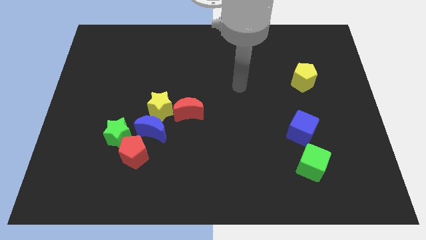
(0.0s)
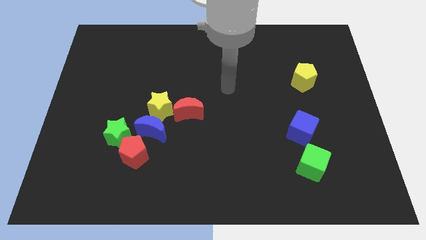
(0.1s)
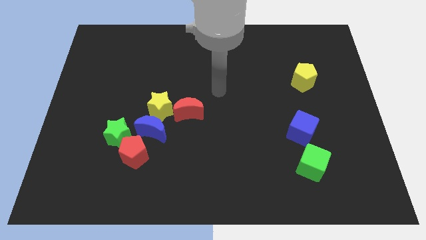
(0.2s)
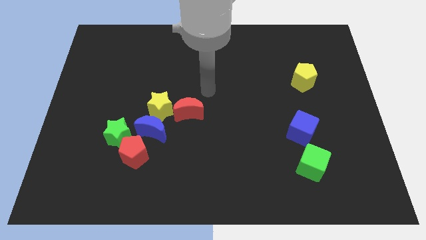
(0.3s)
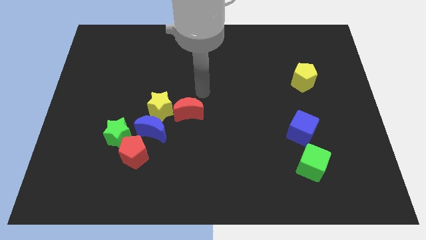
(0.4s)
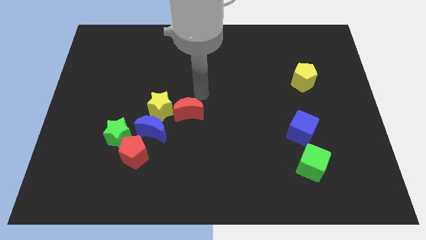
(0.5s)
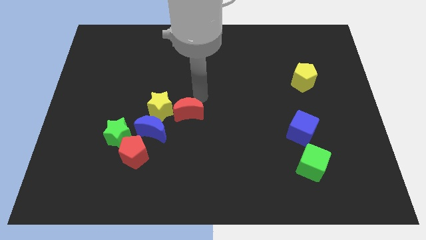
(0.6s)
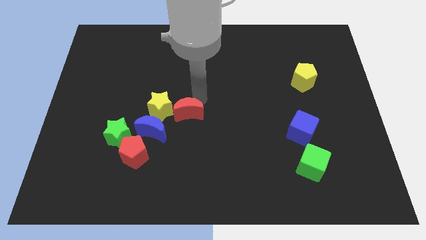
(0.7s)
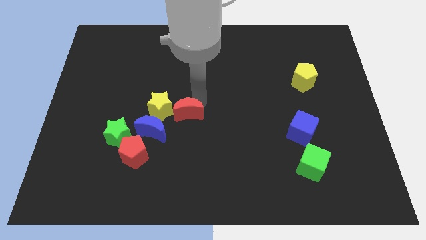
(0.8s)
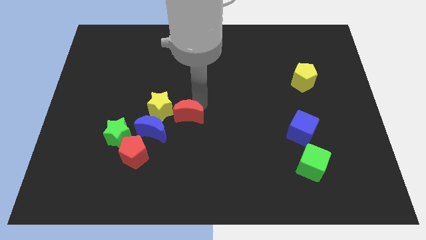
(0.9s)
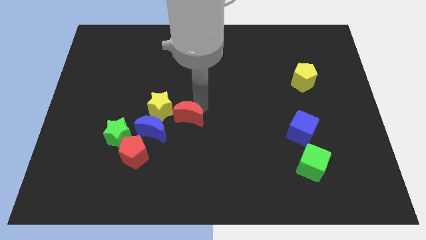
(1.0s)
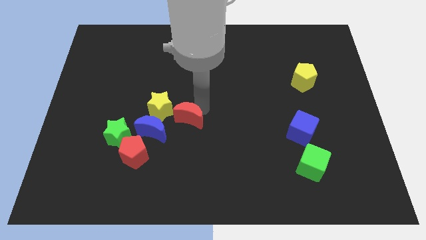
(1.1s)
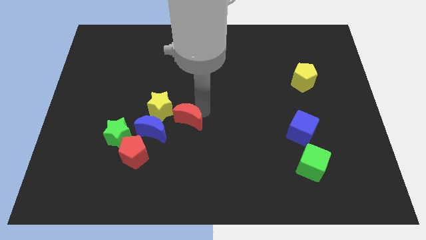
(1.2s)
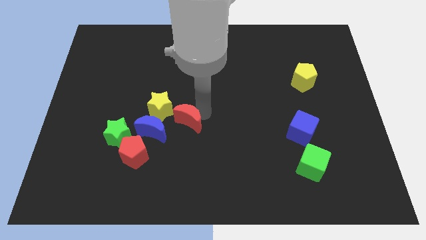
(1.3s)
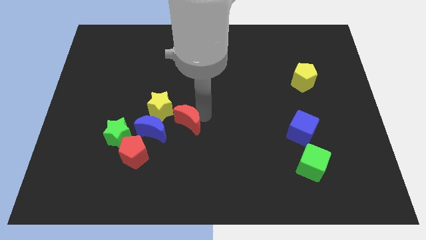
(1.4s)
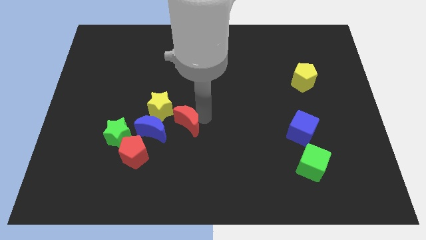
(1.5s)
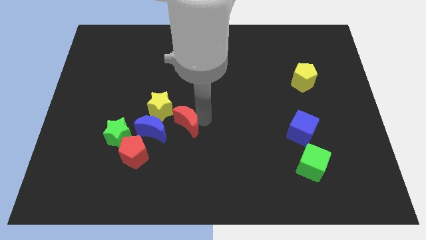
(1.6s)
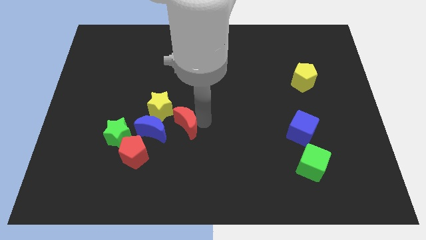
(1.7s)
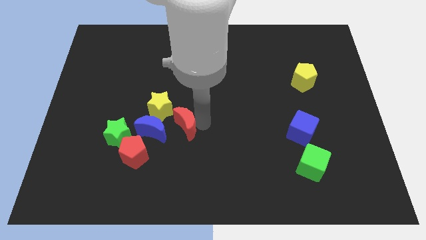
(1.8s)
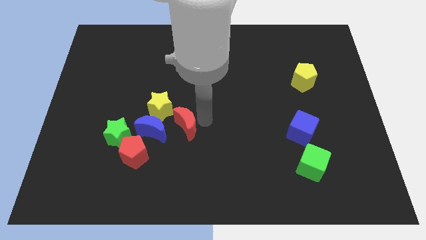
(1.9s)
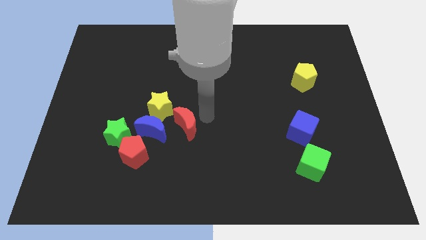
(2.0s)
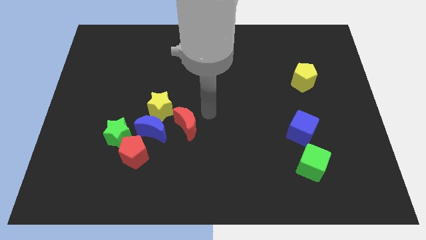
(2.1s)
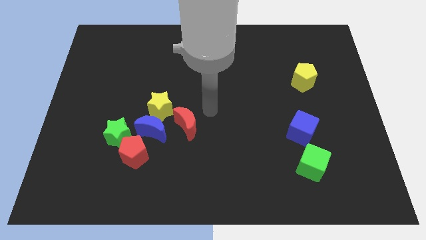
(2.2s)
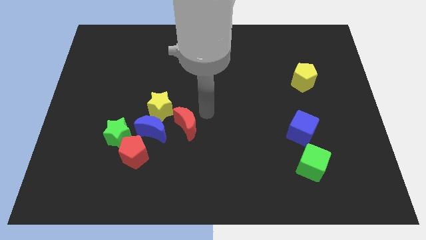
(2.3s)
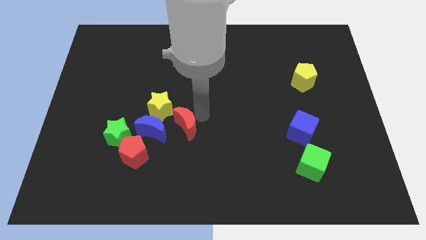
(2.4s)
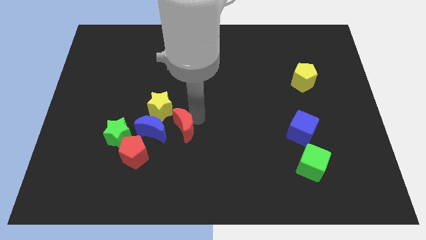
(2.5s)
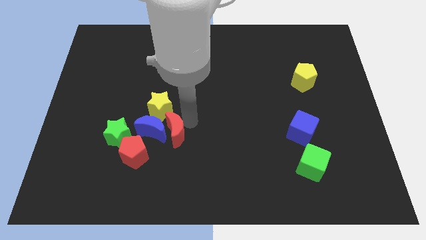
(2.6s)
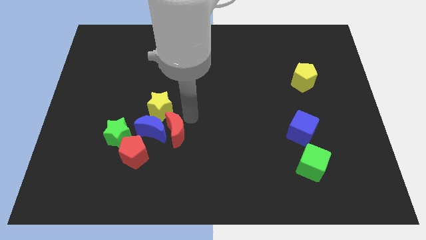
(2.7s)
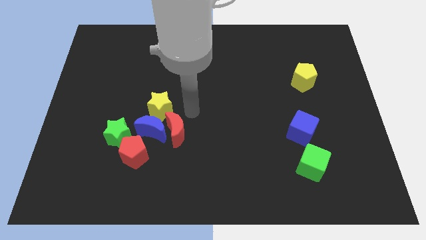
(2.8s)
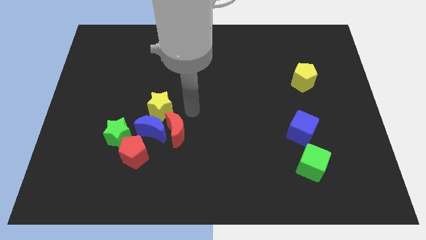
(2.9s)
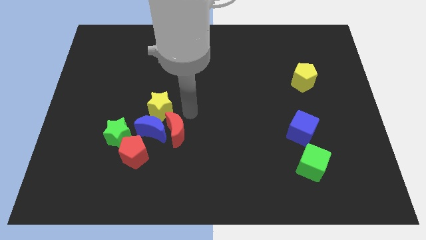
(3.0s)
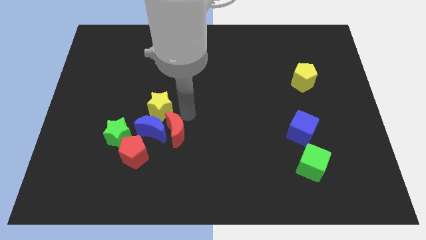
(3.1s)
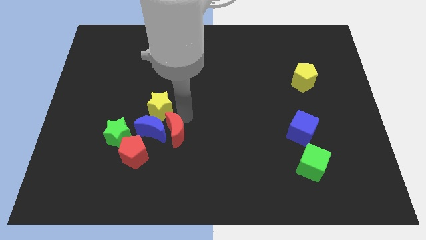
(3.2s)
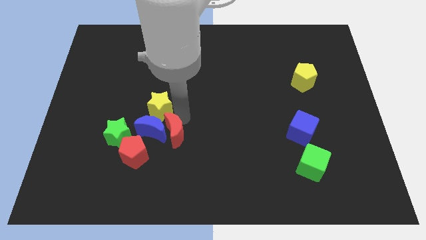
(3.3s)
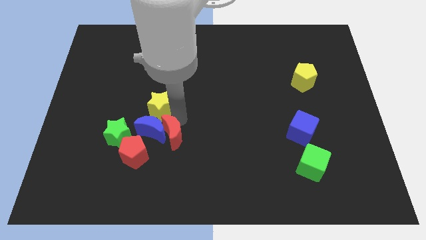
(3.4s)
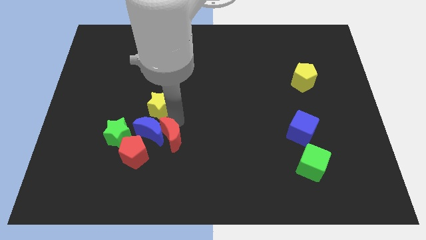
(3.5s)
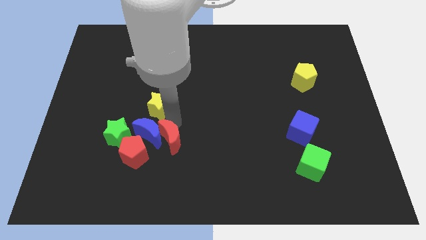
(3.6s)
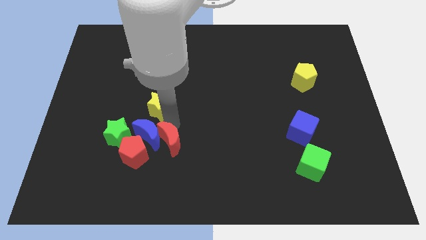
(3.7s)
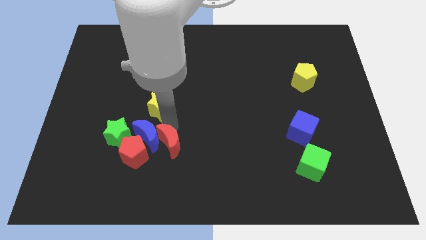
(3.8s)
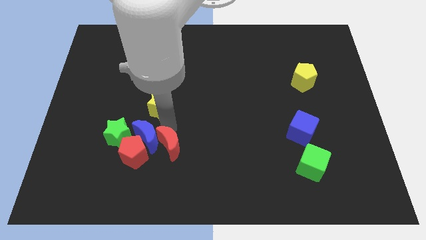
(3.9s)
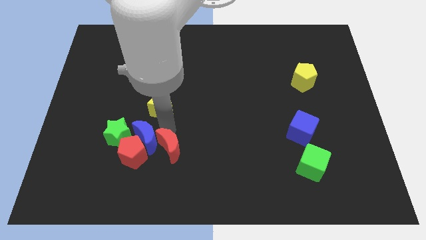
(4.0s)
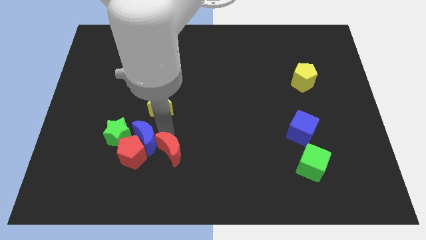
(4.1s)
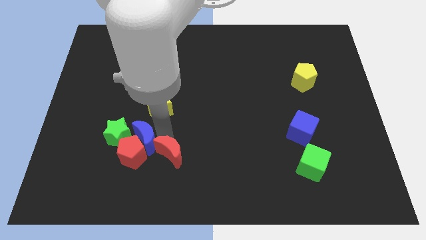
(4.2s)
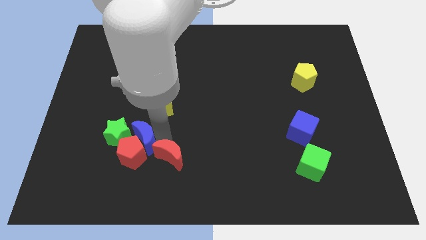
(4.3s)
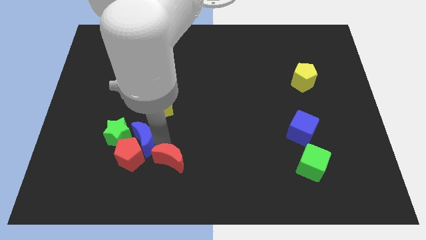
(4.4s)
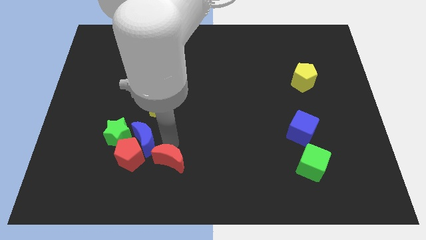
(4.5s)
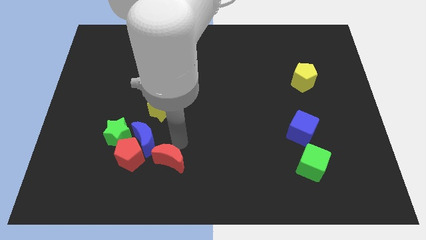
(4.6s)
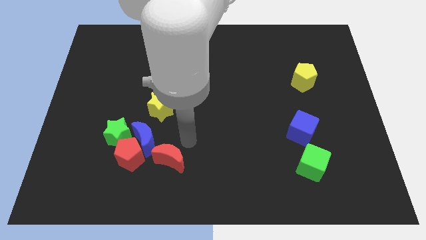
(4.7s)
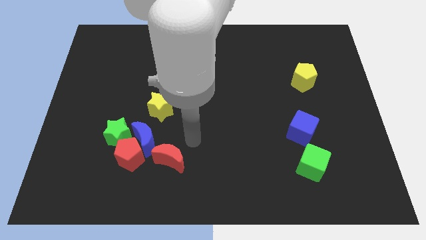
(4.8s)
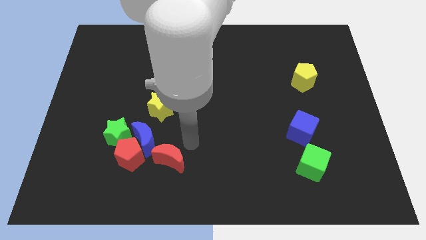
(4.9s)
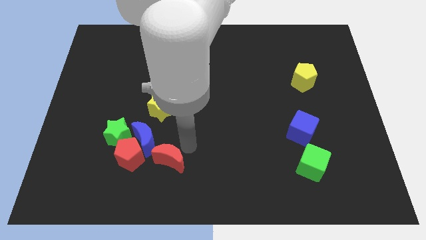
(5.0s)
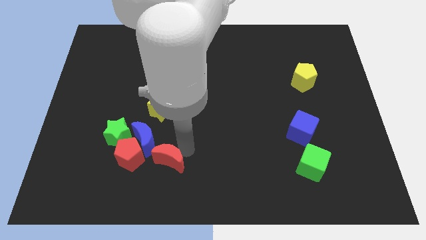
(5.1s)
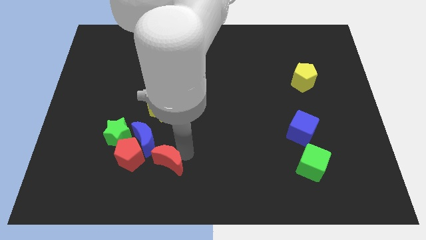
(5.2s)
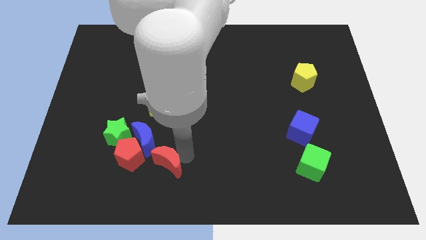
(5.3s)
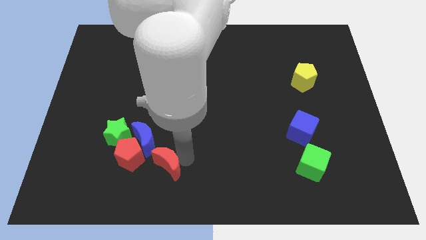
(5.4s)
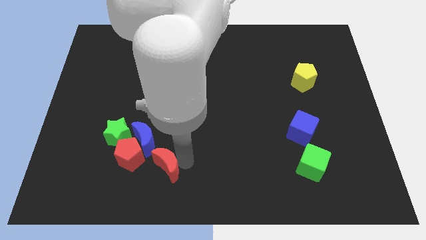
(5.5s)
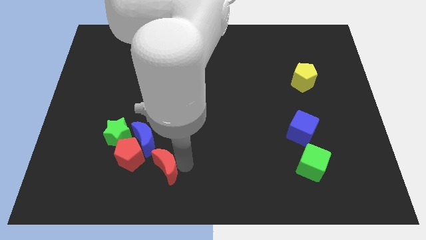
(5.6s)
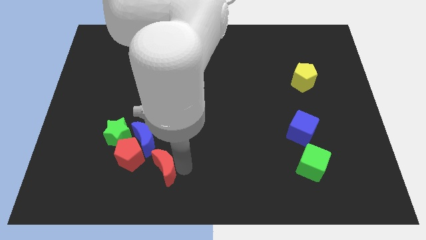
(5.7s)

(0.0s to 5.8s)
push the red moon to the bottom side of the blue moon

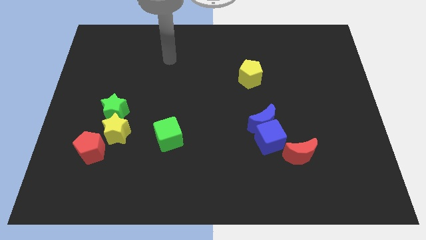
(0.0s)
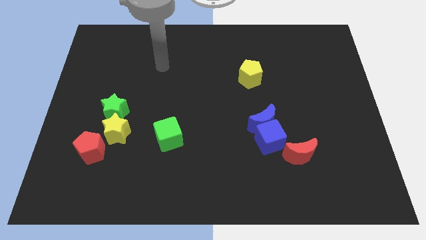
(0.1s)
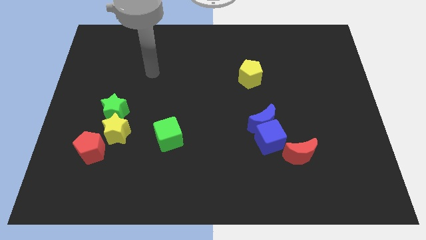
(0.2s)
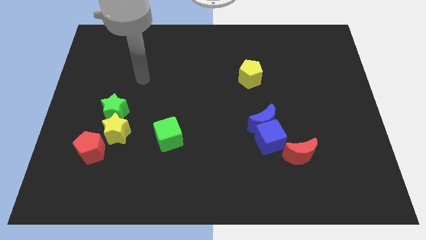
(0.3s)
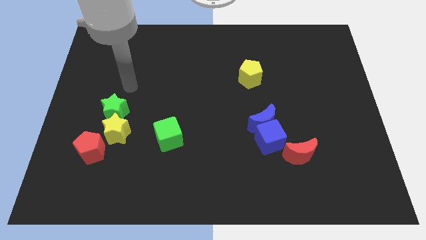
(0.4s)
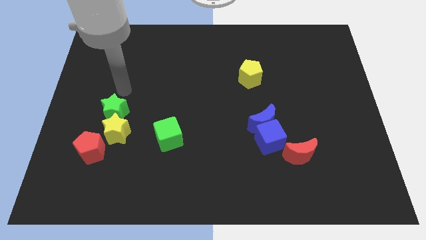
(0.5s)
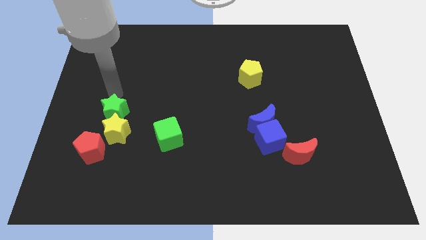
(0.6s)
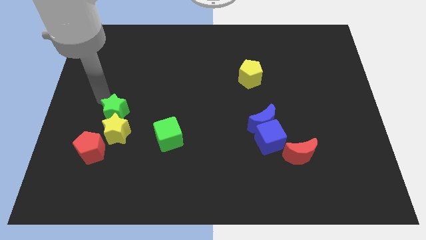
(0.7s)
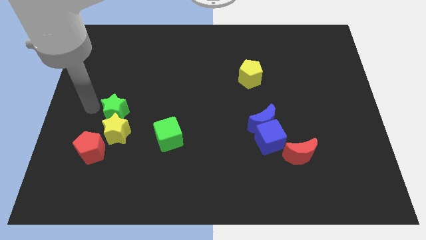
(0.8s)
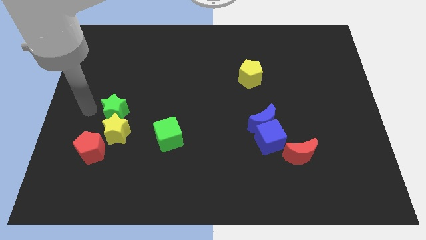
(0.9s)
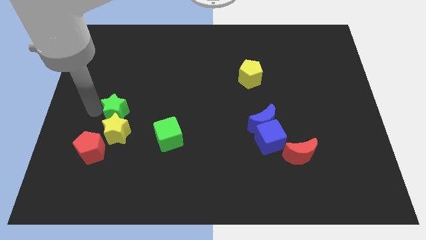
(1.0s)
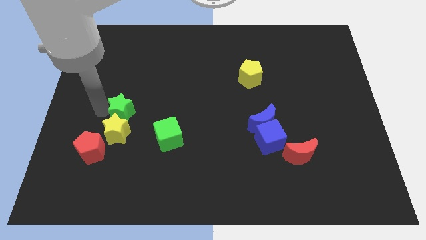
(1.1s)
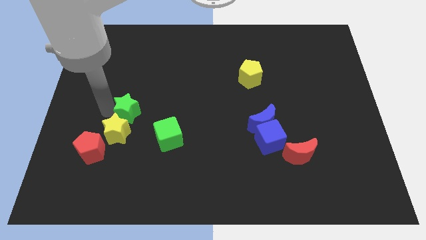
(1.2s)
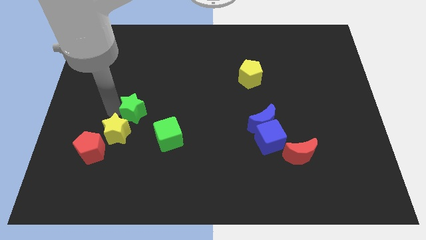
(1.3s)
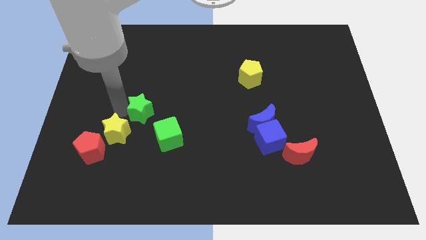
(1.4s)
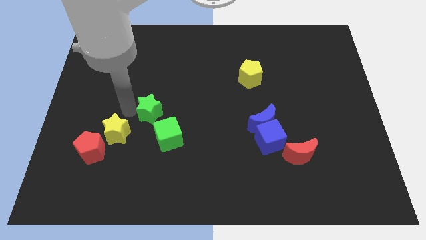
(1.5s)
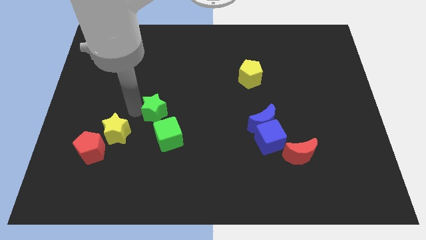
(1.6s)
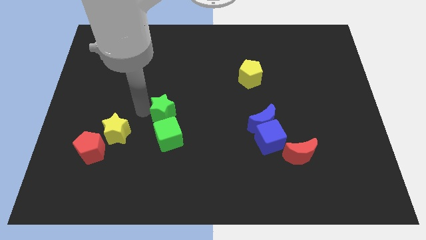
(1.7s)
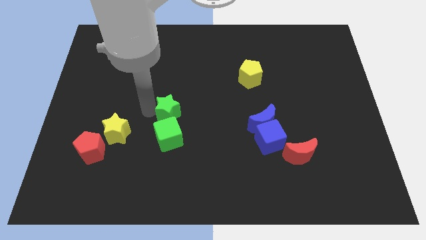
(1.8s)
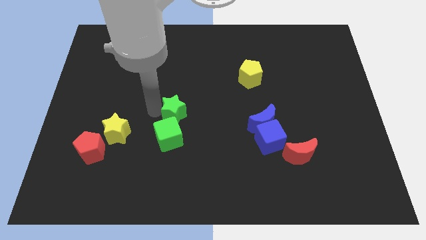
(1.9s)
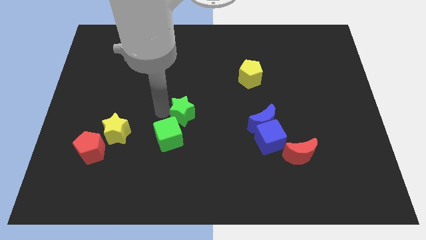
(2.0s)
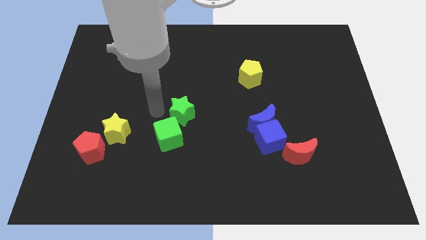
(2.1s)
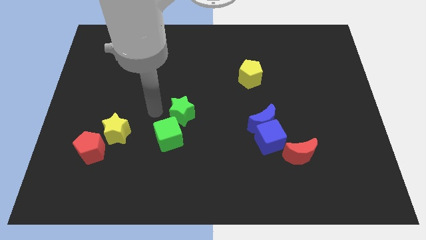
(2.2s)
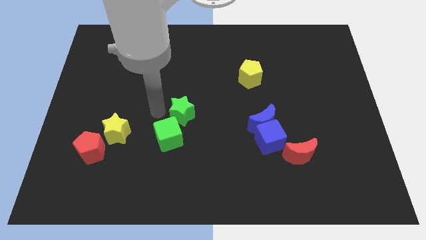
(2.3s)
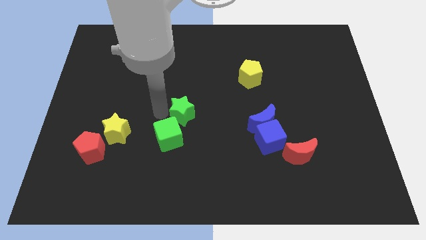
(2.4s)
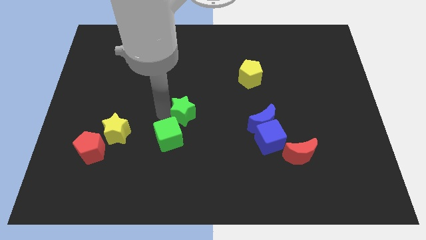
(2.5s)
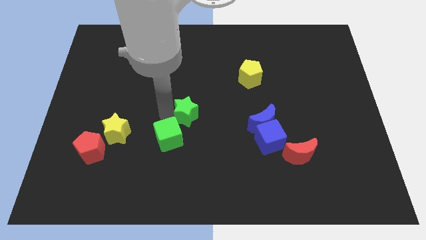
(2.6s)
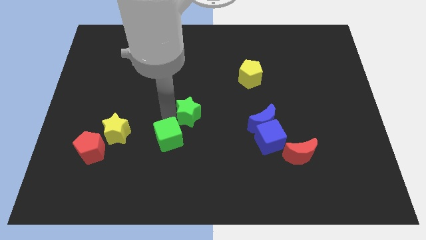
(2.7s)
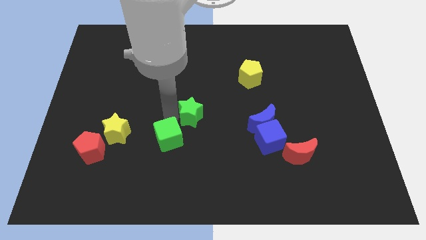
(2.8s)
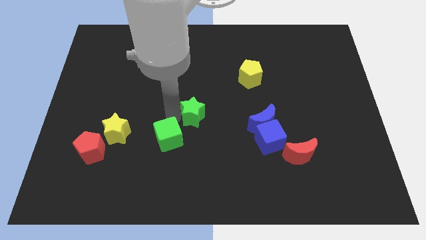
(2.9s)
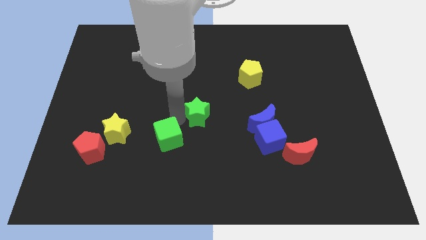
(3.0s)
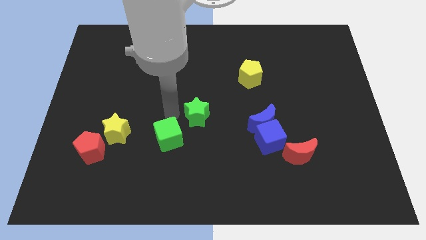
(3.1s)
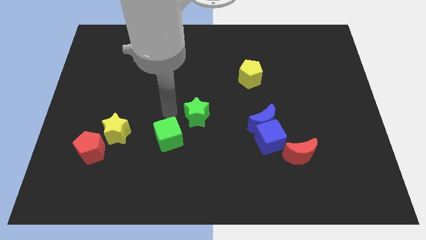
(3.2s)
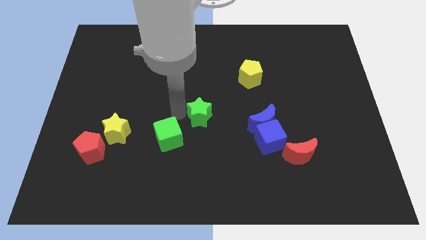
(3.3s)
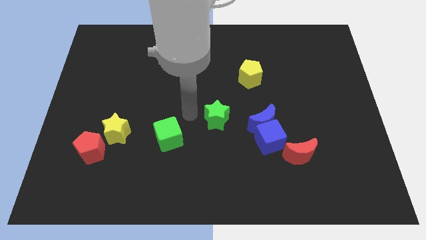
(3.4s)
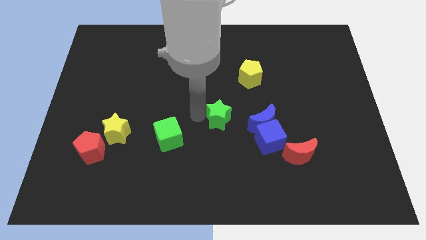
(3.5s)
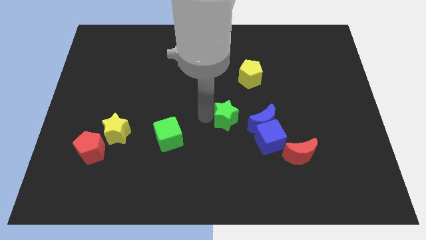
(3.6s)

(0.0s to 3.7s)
put the green star diagonally up and to the left of the blue cube
